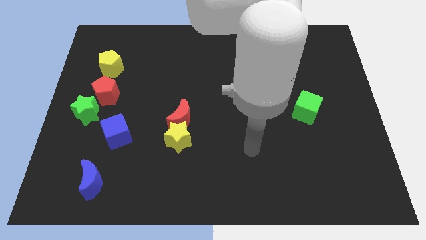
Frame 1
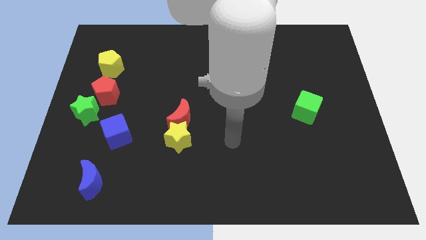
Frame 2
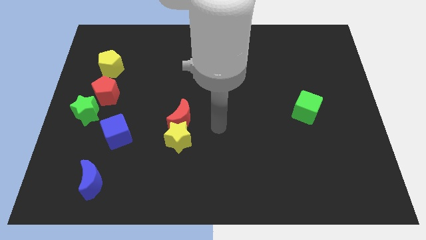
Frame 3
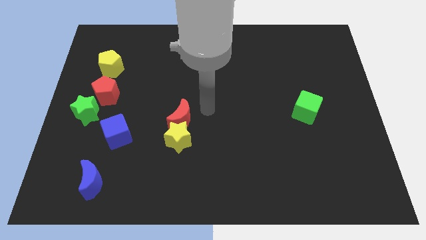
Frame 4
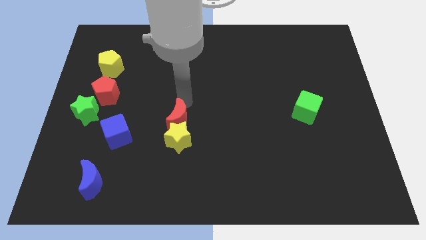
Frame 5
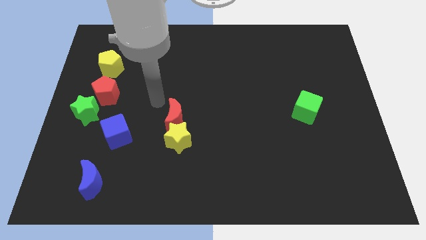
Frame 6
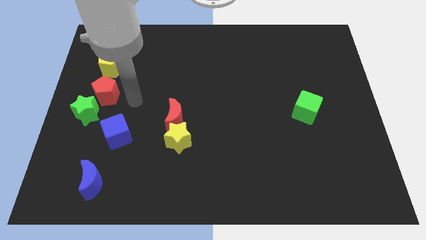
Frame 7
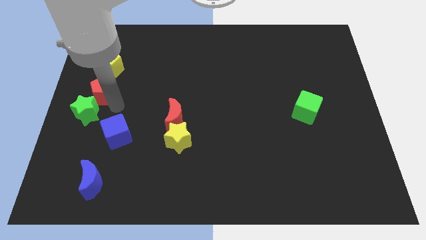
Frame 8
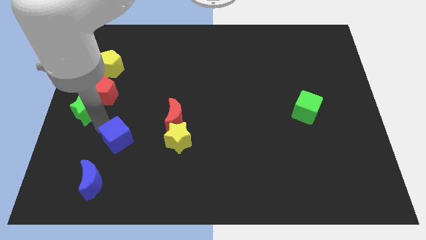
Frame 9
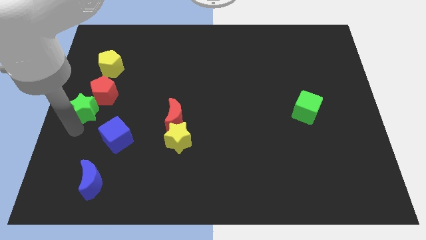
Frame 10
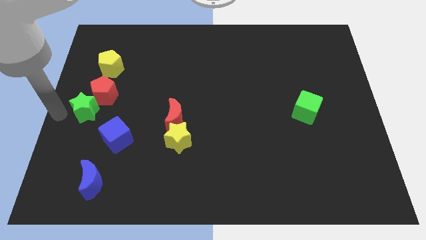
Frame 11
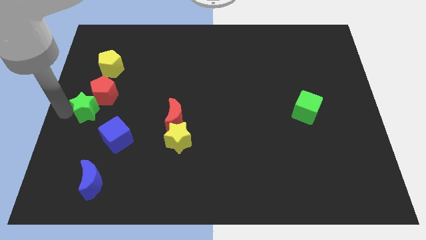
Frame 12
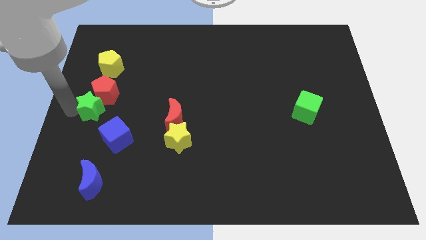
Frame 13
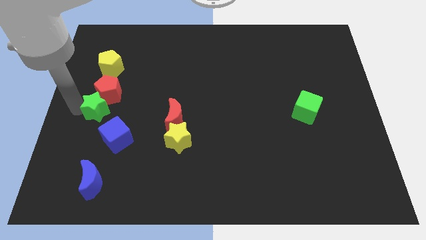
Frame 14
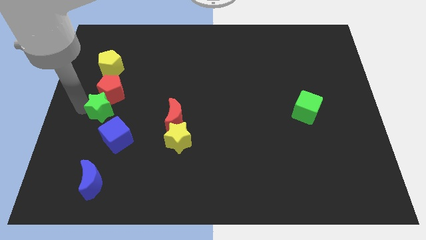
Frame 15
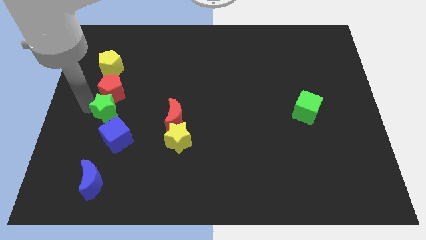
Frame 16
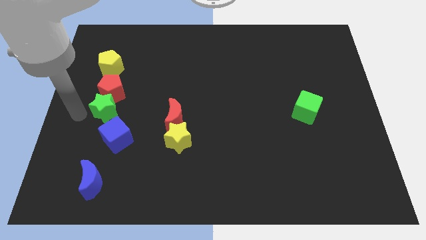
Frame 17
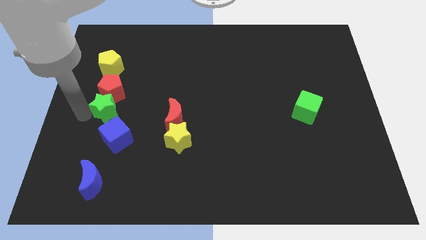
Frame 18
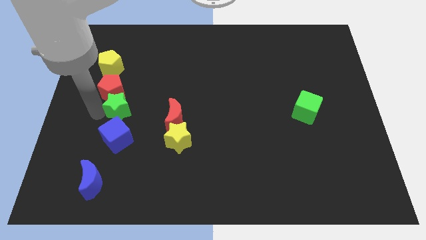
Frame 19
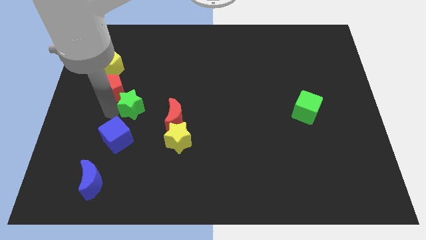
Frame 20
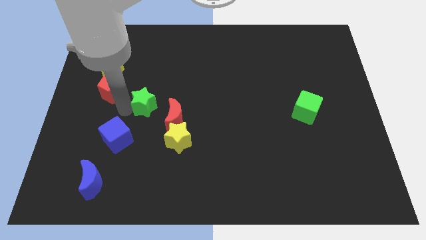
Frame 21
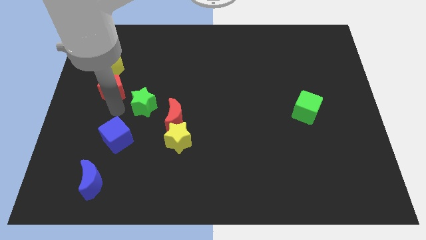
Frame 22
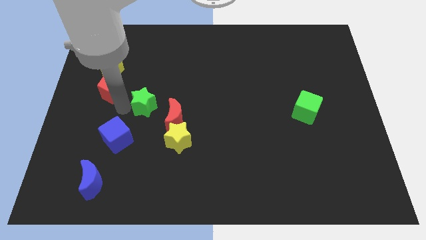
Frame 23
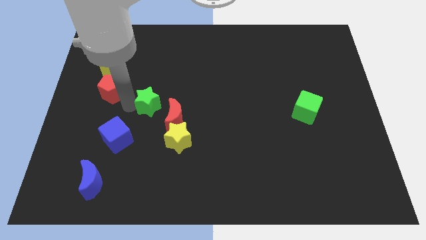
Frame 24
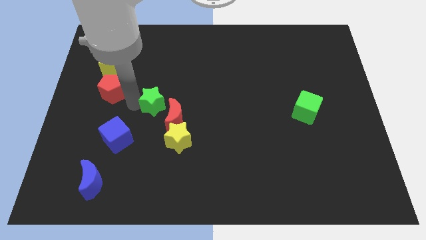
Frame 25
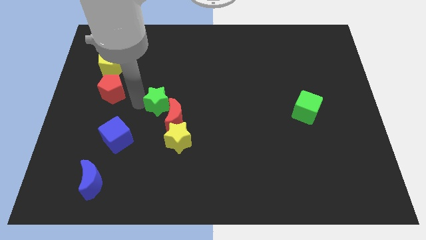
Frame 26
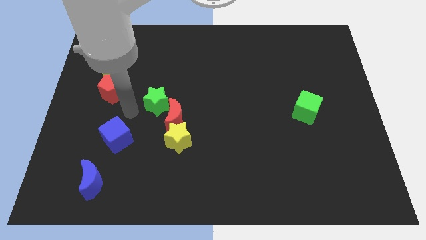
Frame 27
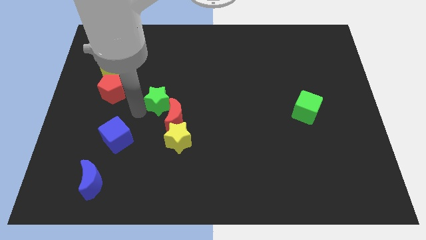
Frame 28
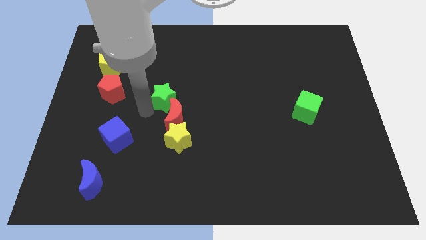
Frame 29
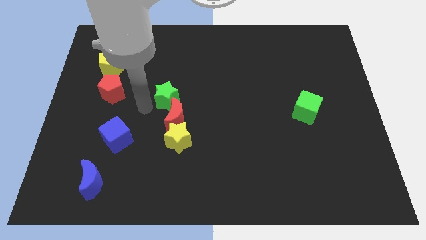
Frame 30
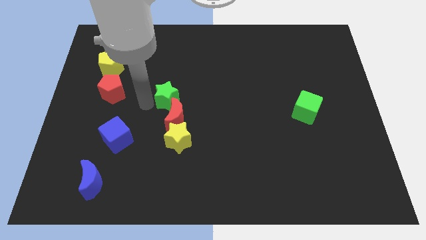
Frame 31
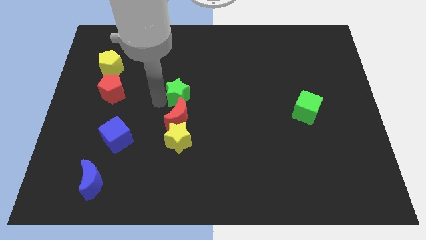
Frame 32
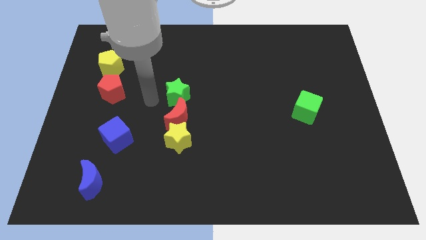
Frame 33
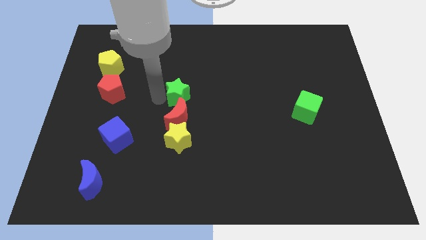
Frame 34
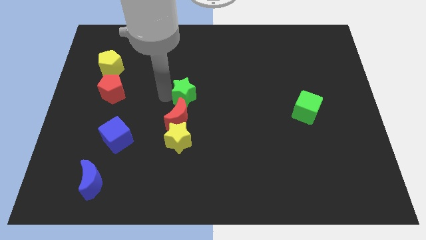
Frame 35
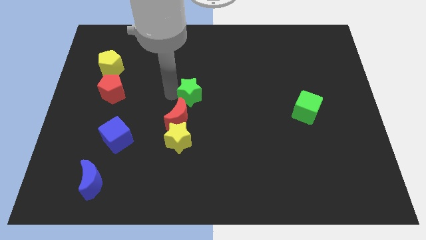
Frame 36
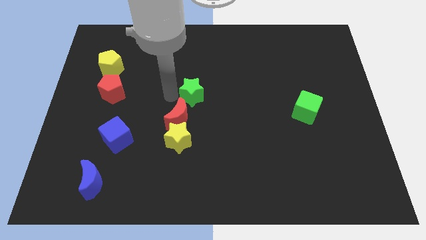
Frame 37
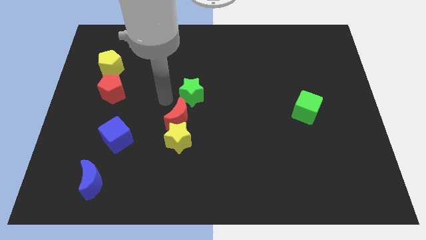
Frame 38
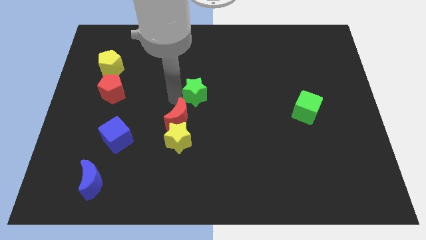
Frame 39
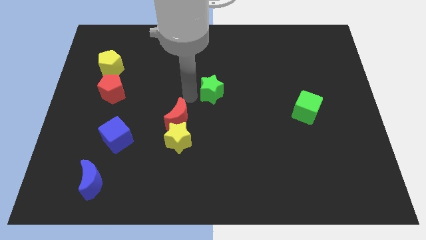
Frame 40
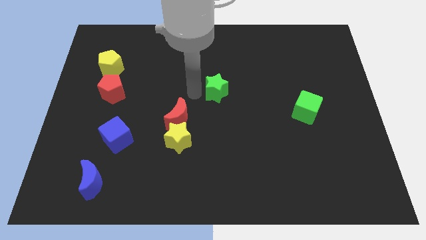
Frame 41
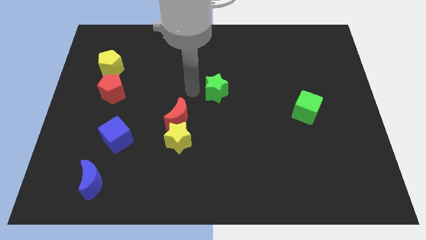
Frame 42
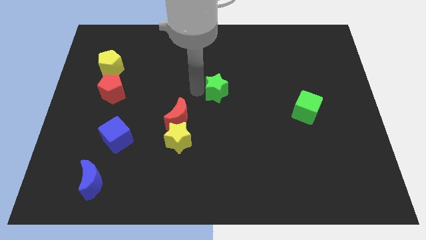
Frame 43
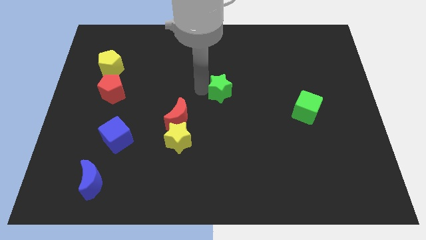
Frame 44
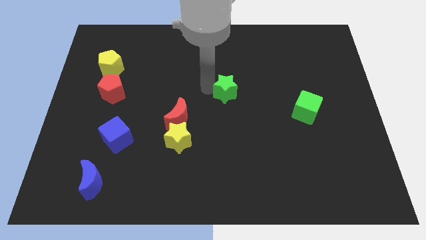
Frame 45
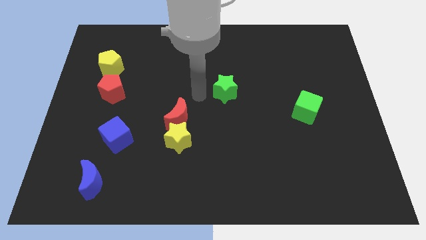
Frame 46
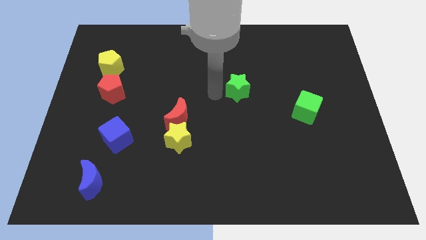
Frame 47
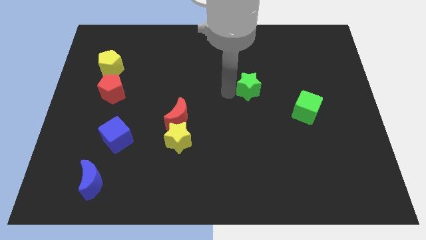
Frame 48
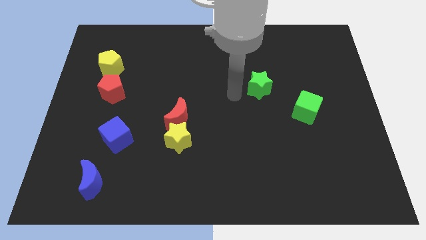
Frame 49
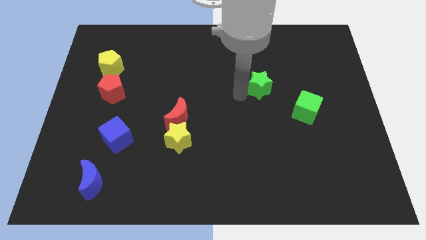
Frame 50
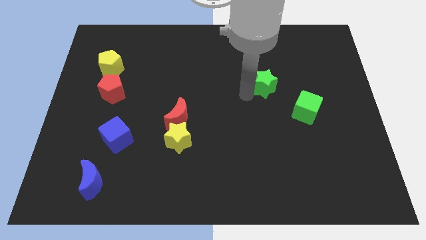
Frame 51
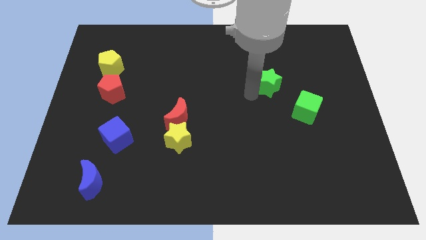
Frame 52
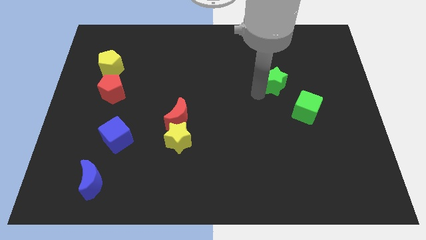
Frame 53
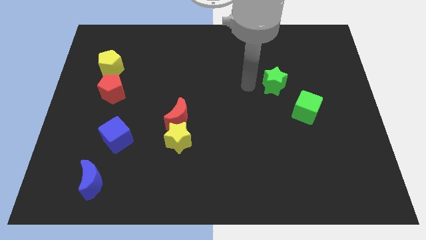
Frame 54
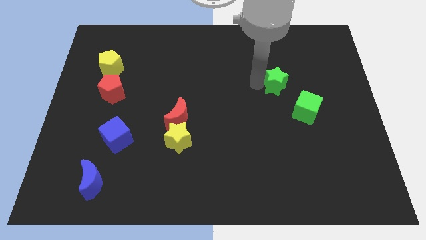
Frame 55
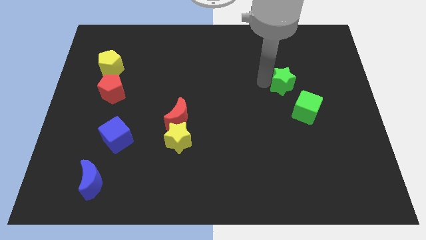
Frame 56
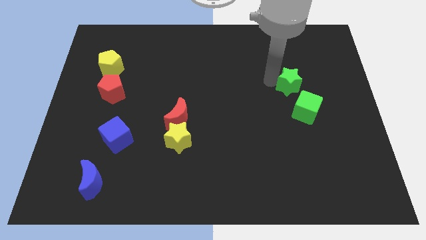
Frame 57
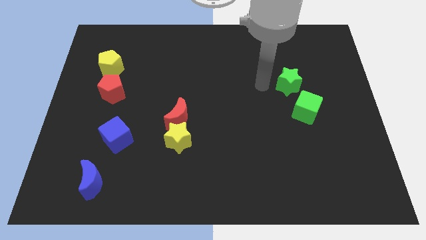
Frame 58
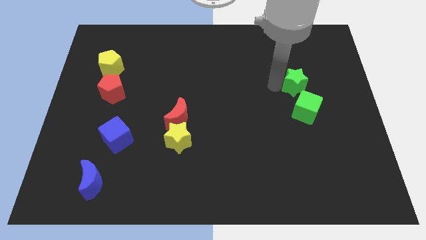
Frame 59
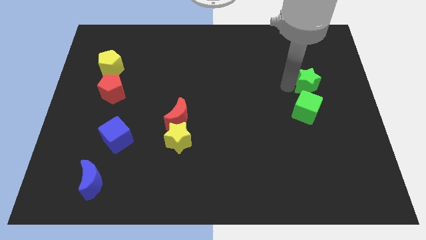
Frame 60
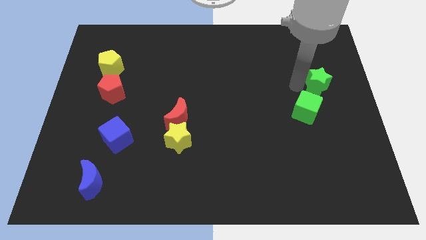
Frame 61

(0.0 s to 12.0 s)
move the green star to the center right
